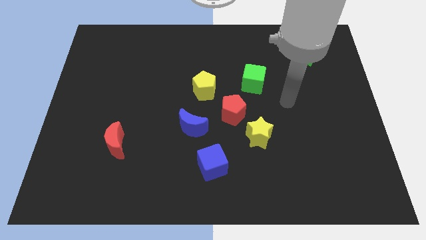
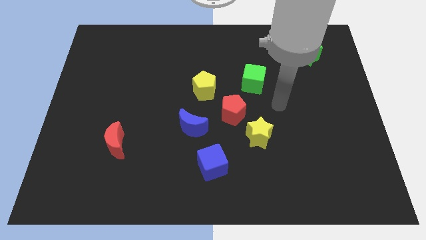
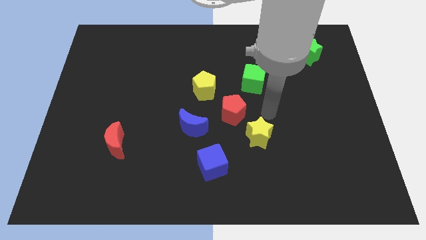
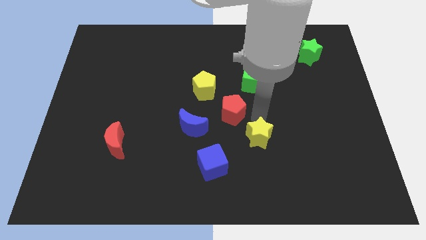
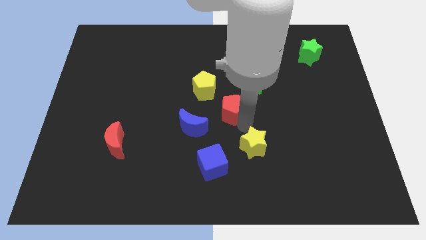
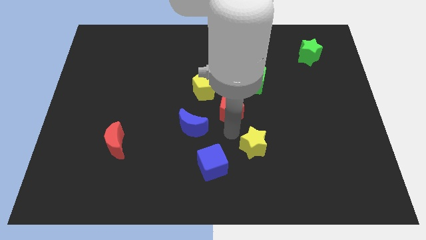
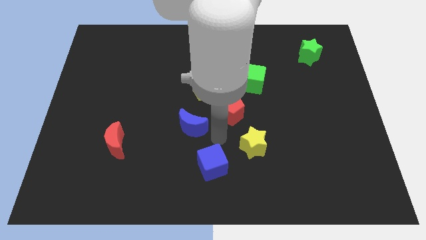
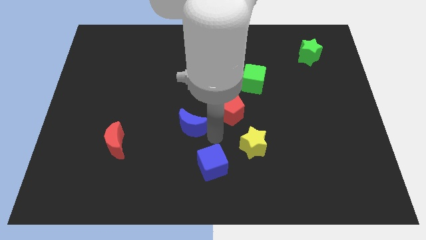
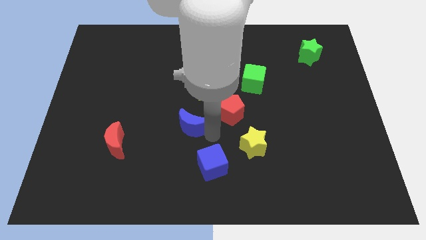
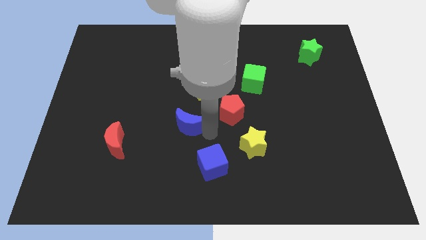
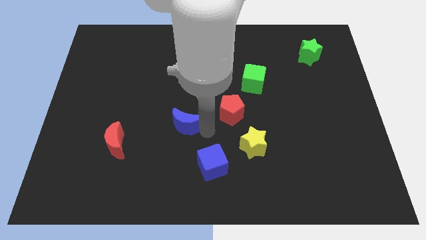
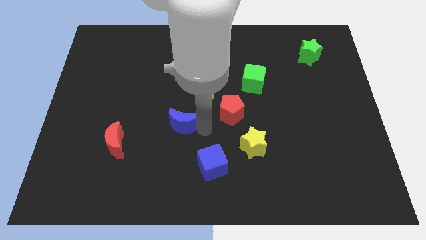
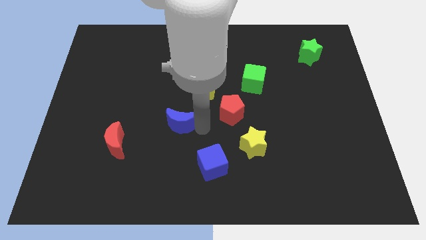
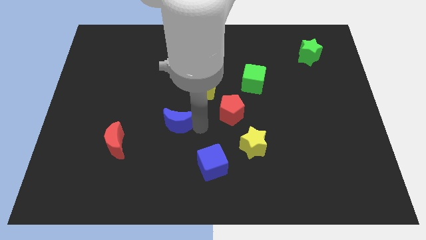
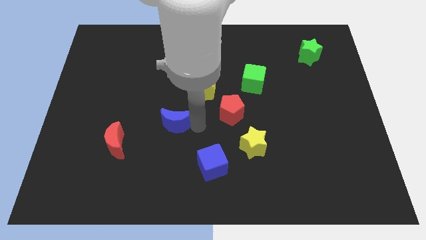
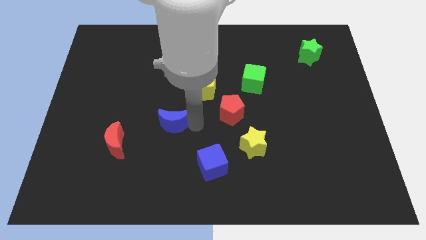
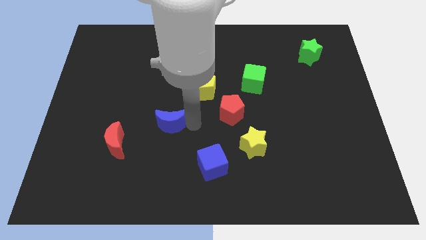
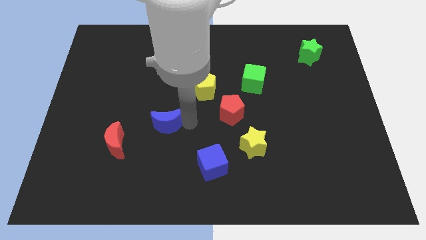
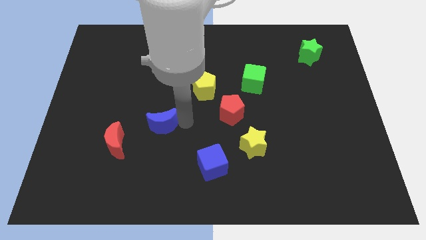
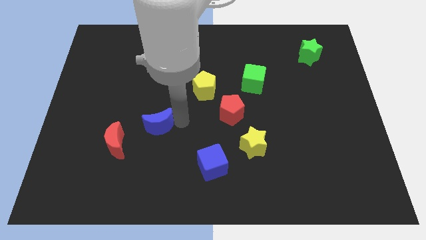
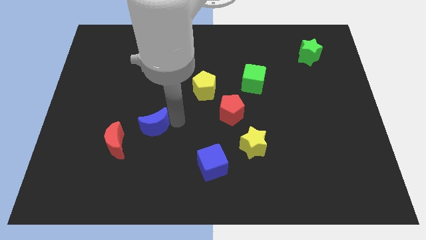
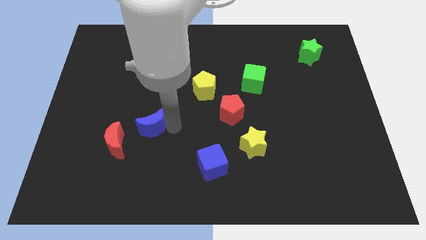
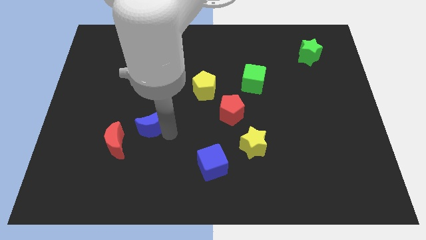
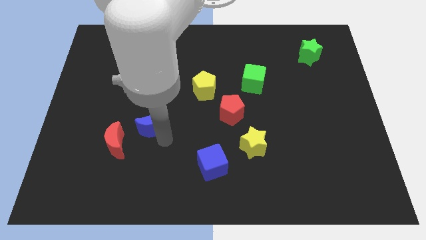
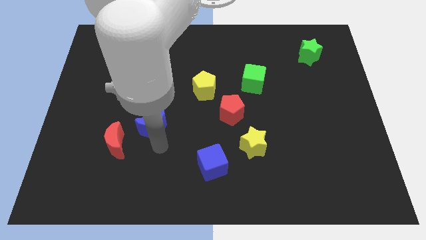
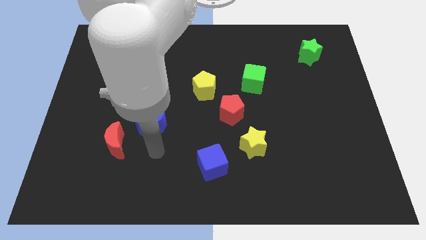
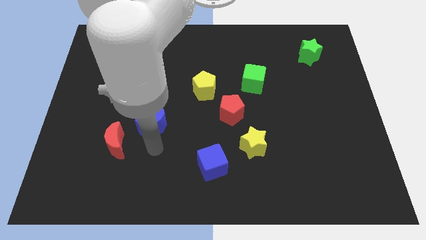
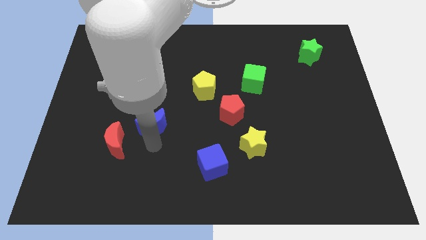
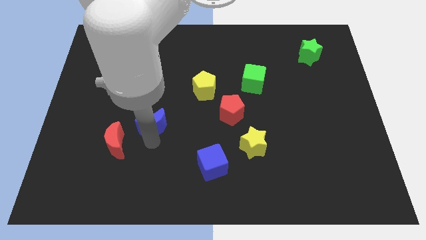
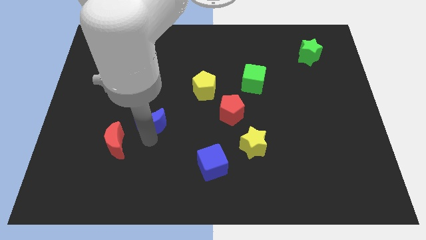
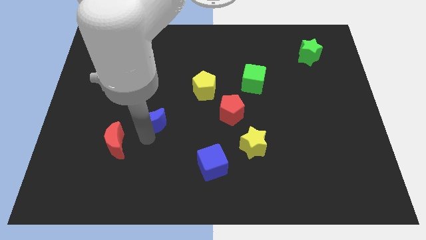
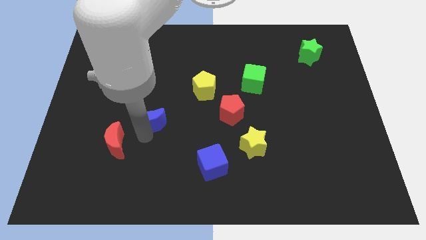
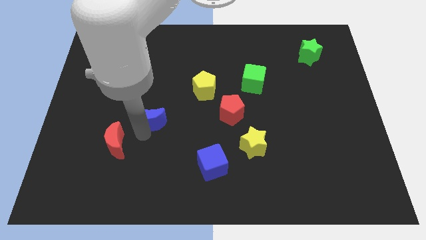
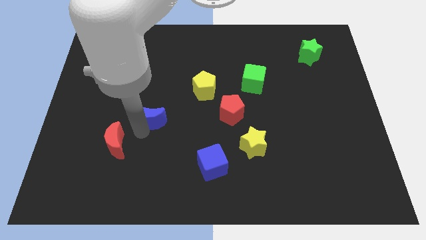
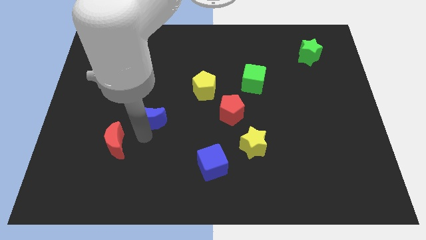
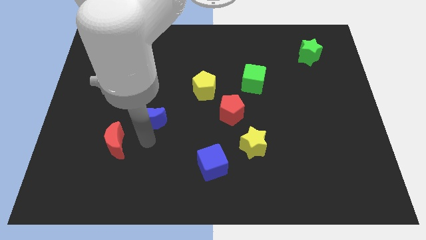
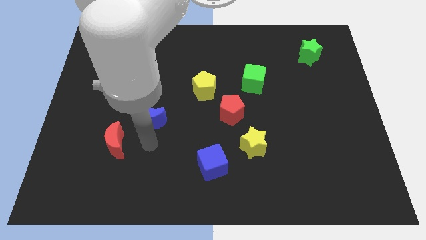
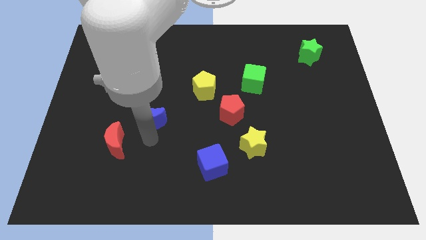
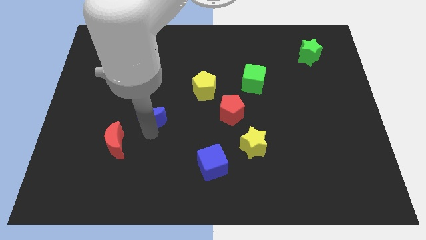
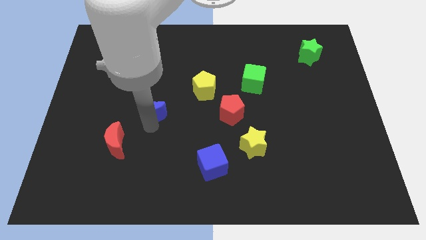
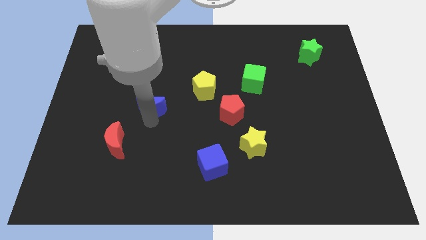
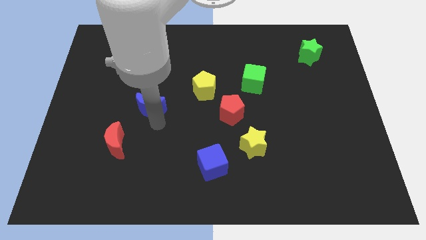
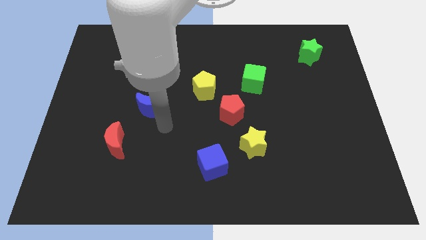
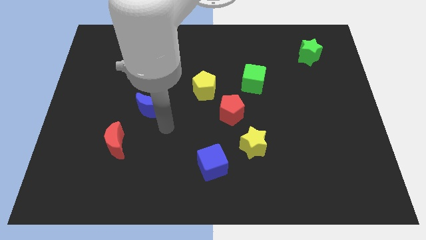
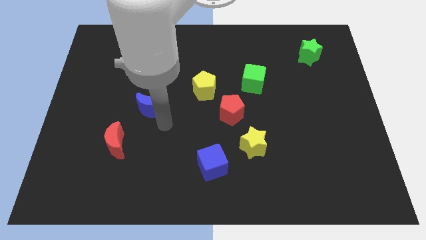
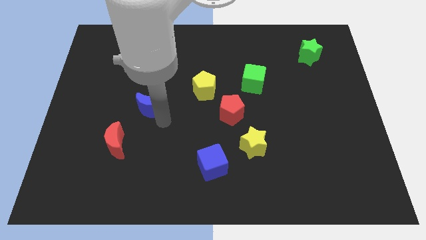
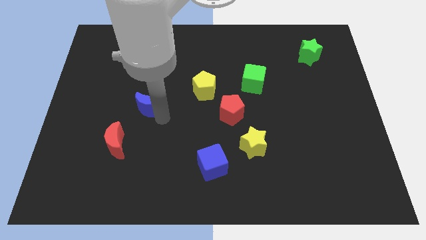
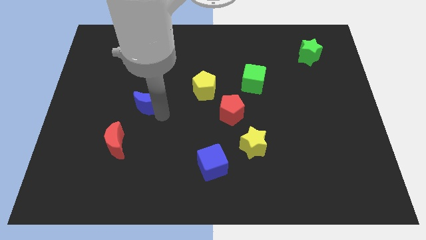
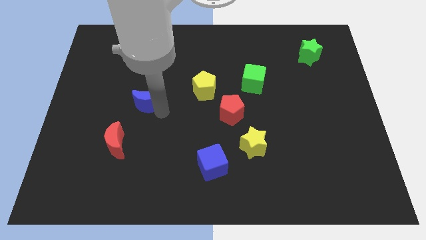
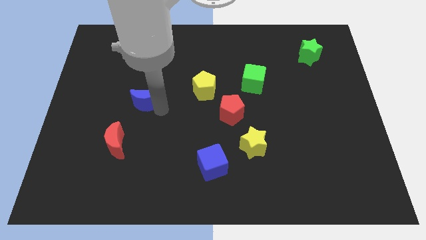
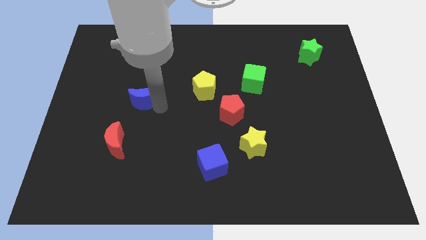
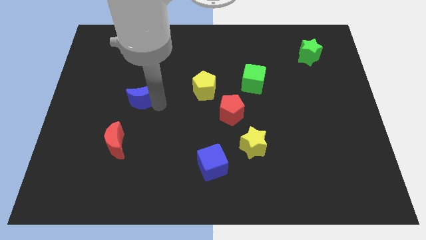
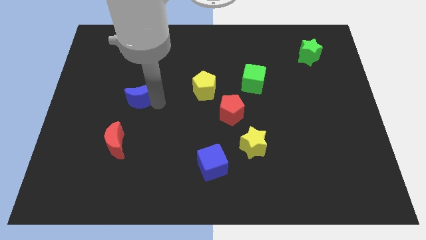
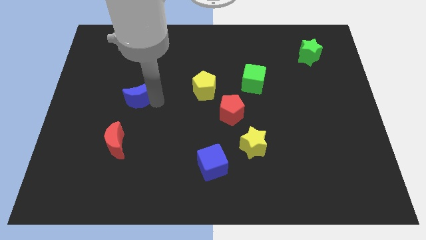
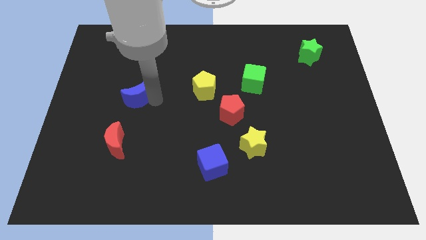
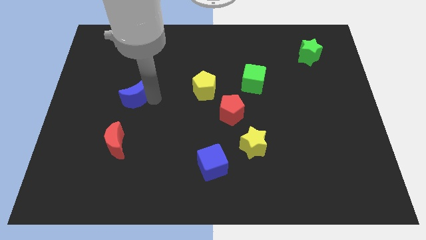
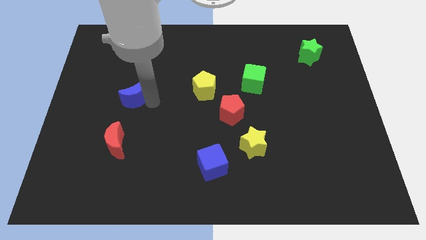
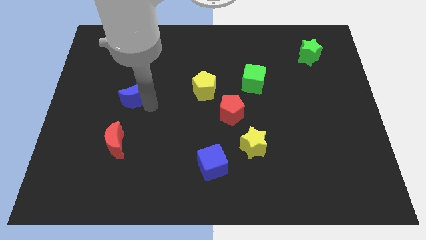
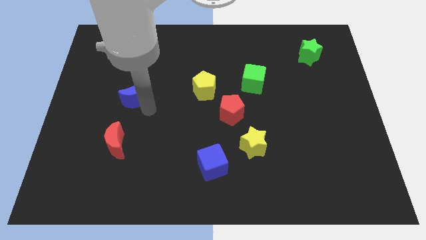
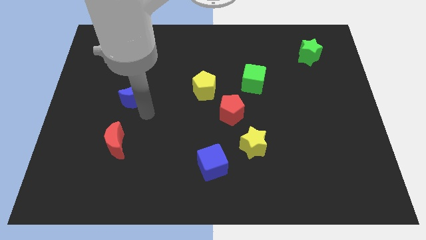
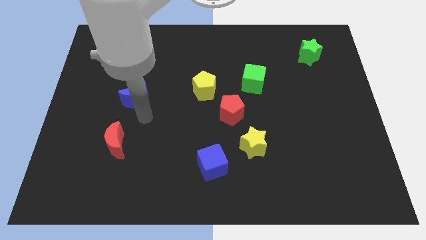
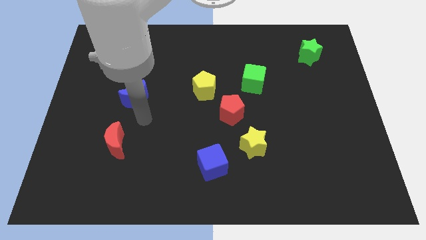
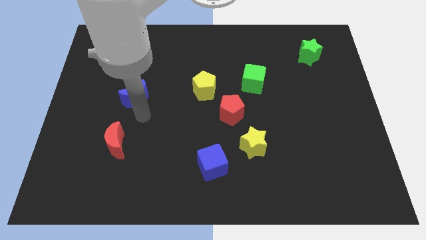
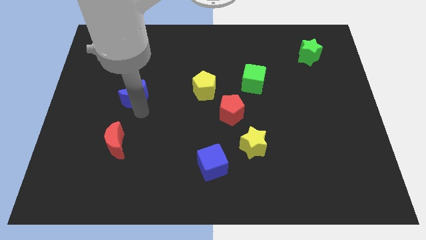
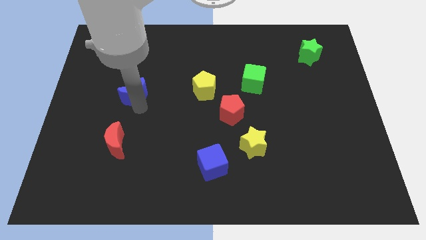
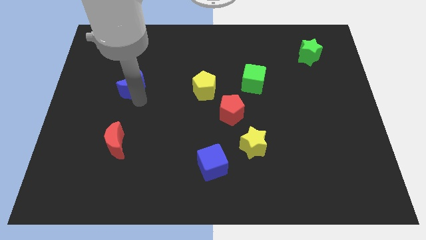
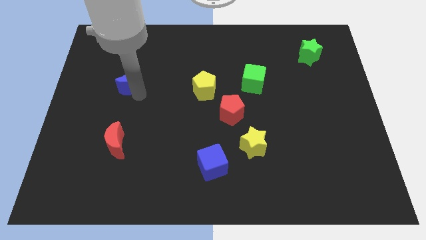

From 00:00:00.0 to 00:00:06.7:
push the blue moon diagonally up and to the left

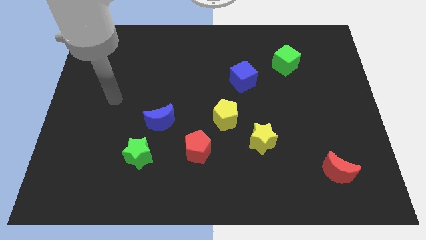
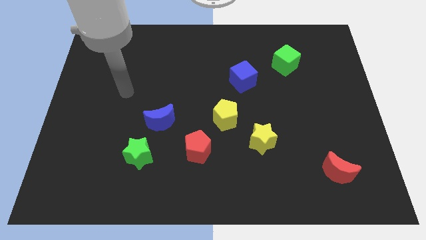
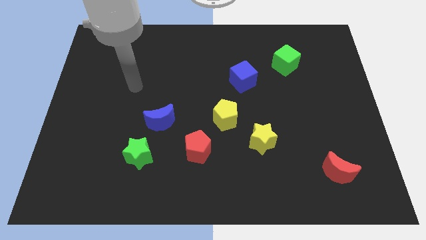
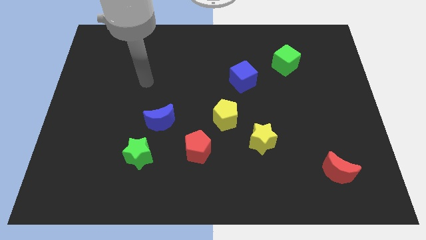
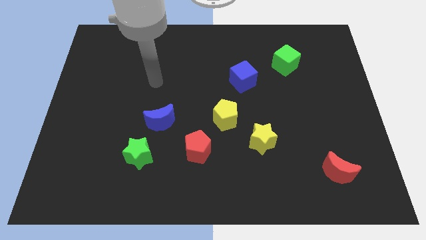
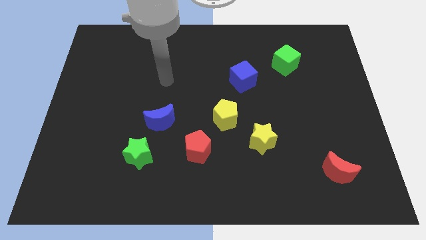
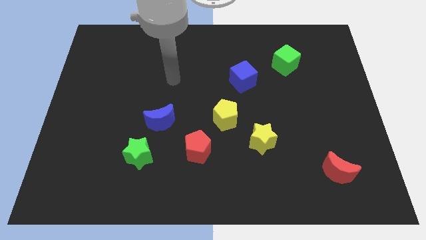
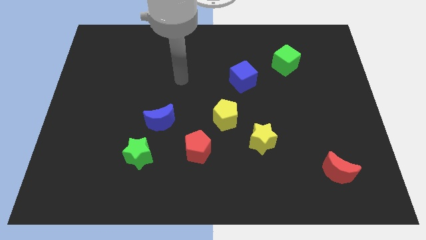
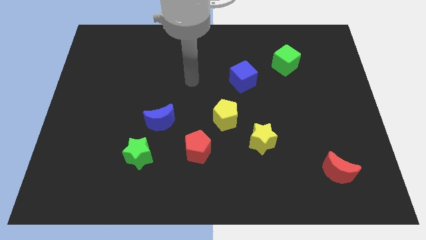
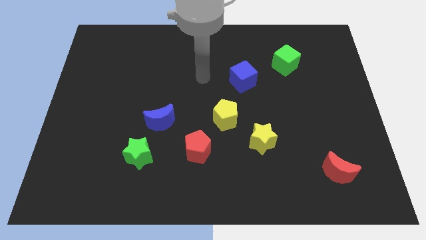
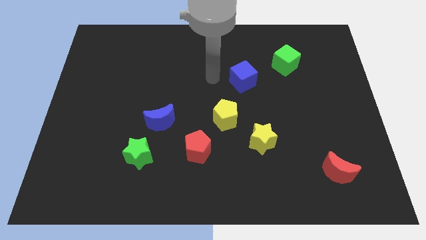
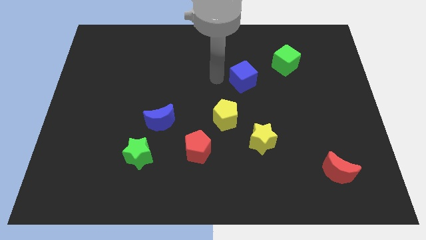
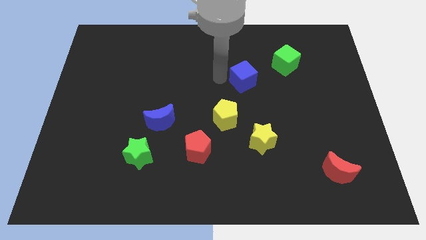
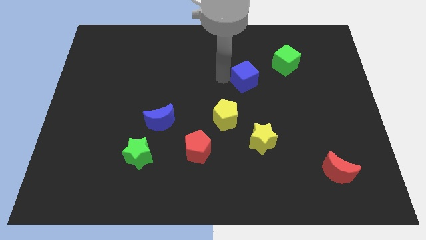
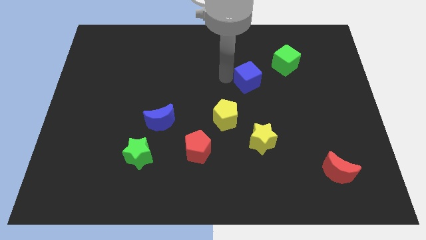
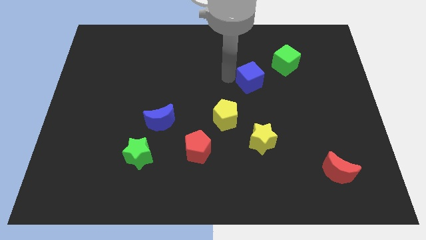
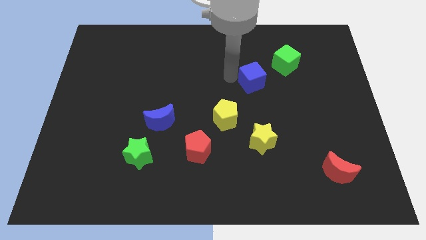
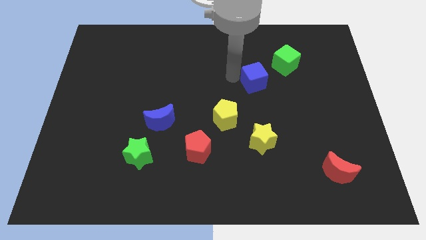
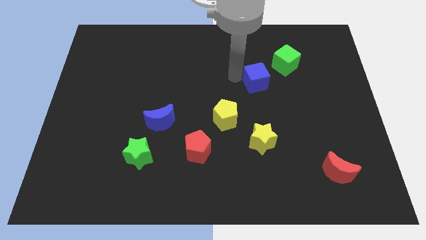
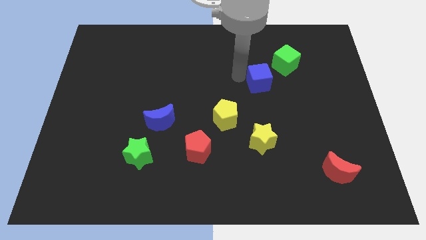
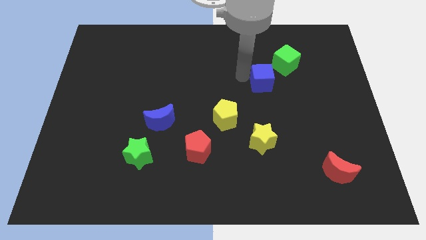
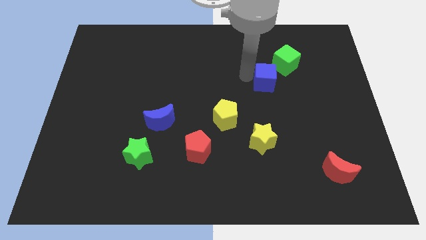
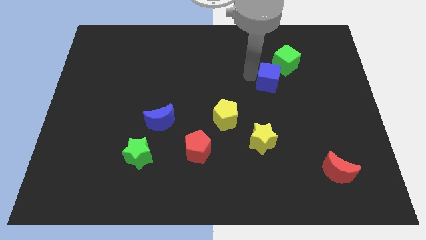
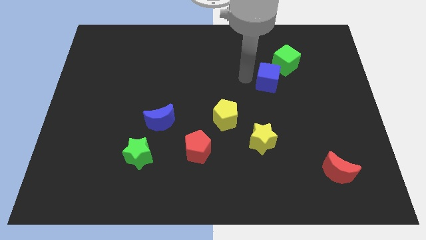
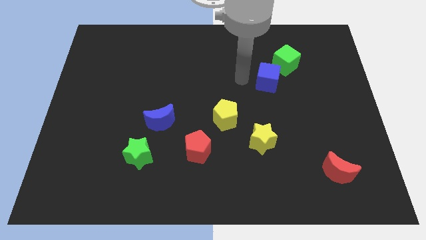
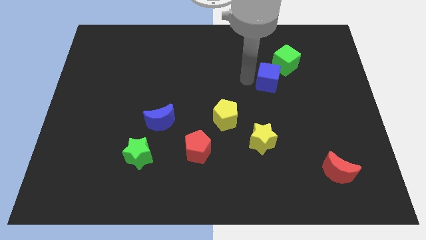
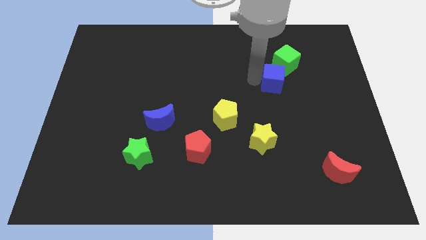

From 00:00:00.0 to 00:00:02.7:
push the blue cube right a bit
